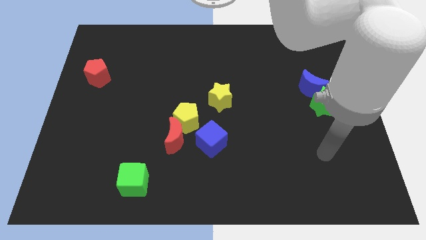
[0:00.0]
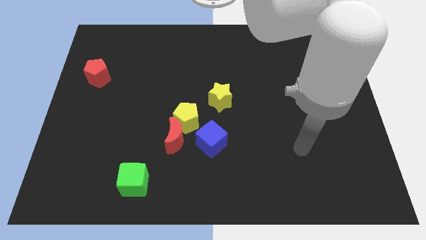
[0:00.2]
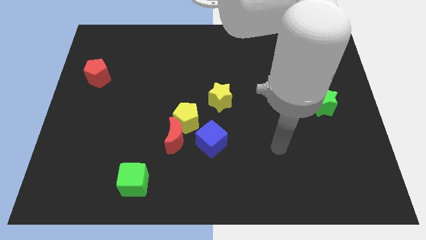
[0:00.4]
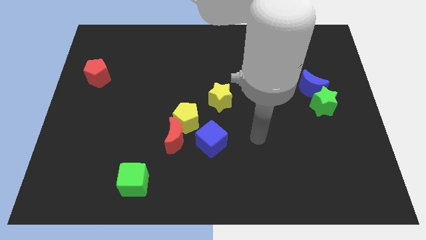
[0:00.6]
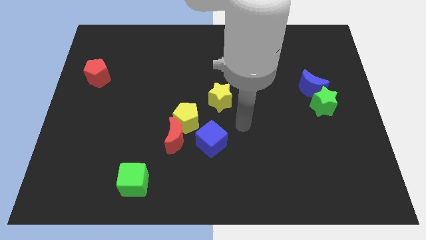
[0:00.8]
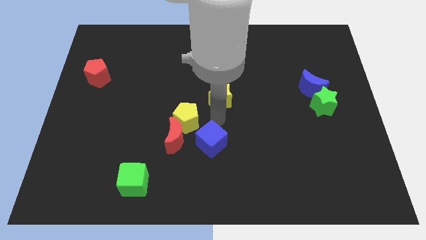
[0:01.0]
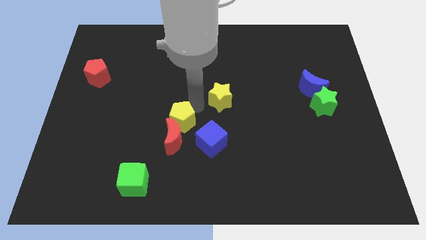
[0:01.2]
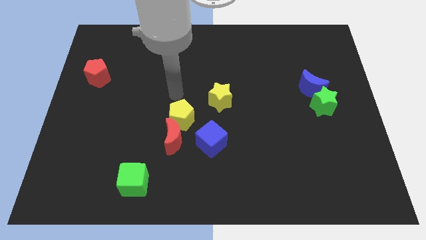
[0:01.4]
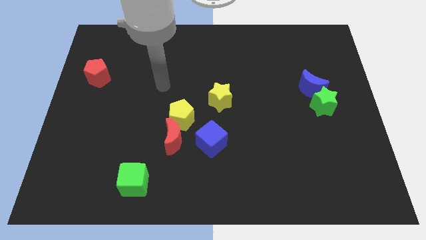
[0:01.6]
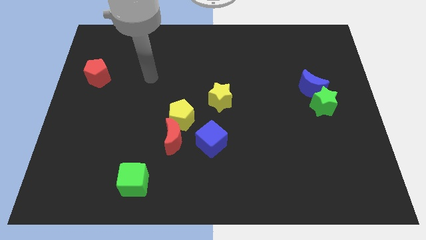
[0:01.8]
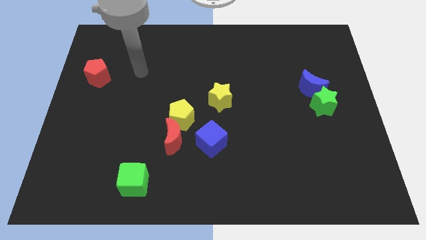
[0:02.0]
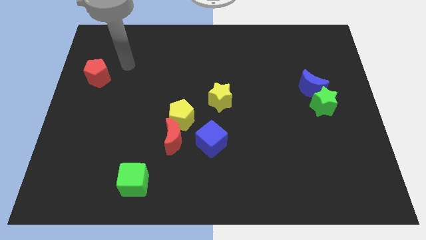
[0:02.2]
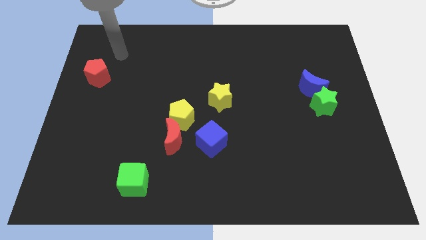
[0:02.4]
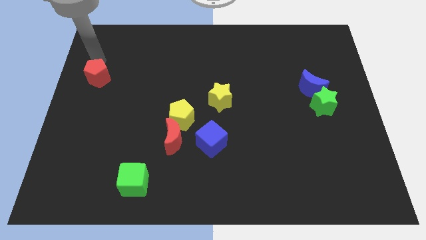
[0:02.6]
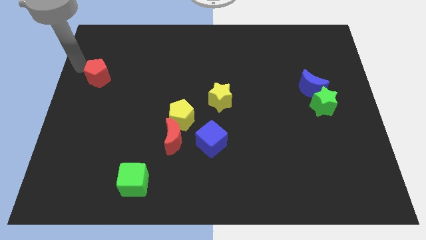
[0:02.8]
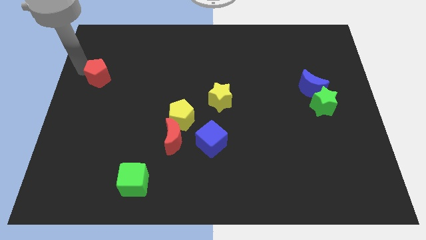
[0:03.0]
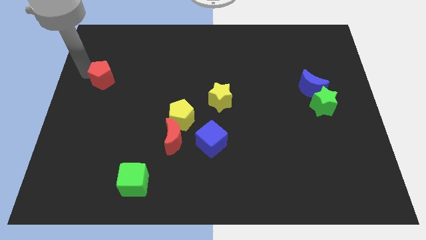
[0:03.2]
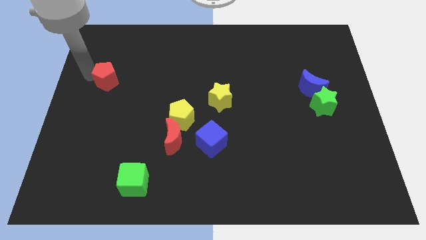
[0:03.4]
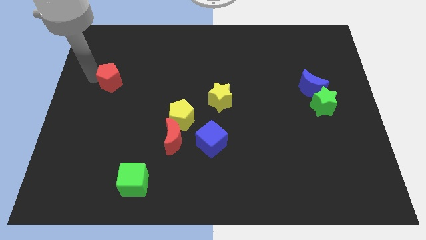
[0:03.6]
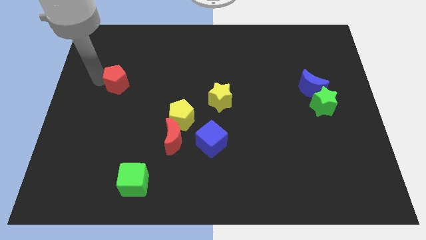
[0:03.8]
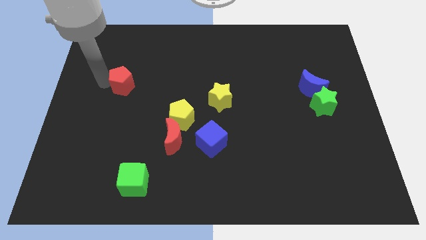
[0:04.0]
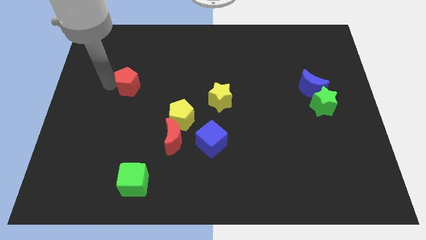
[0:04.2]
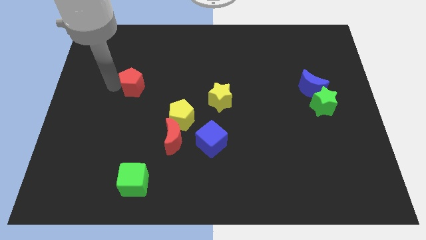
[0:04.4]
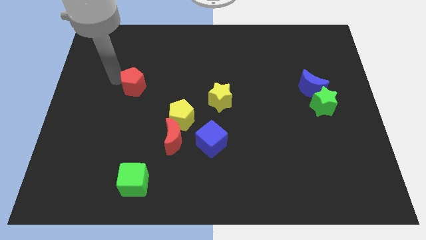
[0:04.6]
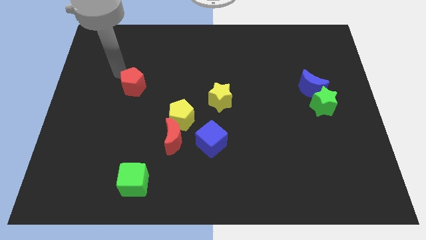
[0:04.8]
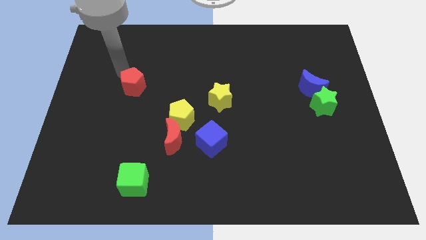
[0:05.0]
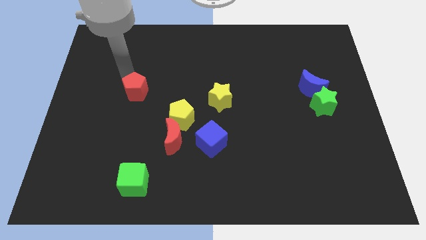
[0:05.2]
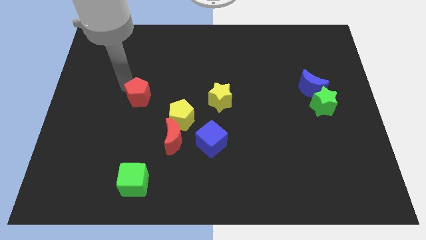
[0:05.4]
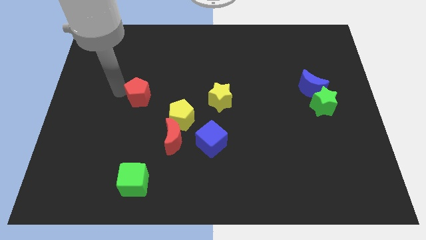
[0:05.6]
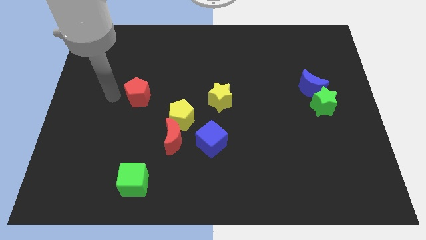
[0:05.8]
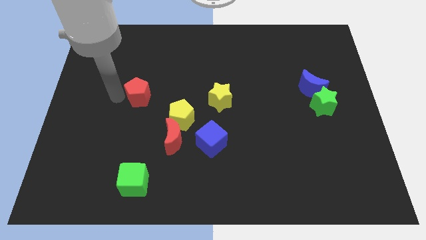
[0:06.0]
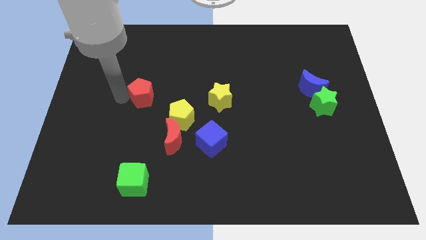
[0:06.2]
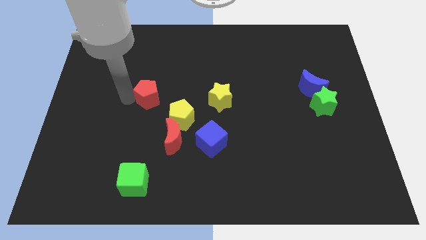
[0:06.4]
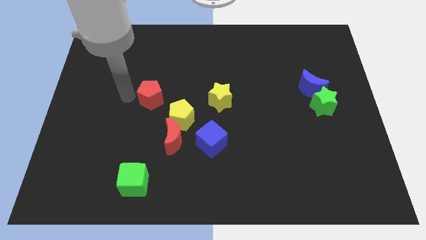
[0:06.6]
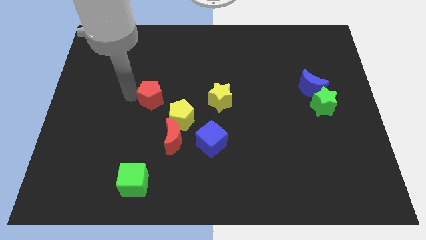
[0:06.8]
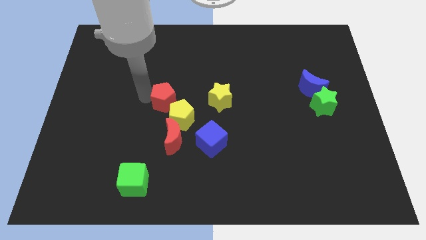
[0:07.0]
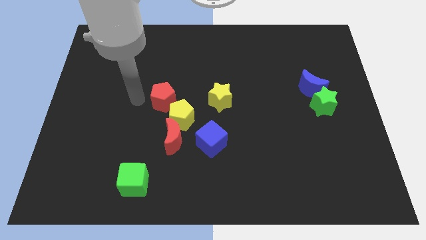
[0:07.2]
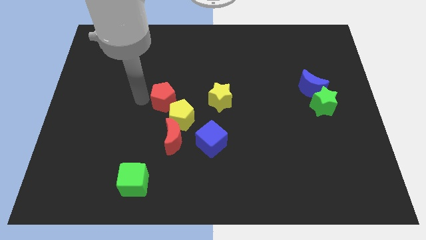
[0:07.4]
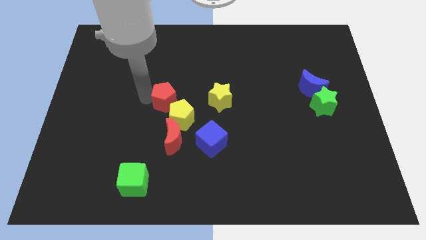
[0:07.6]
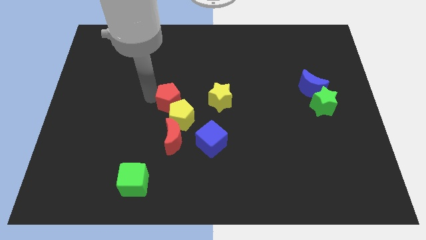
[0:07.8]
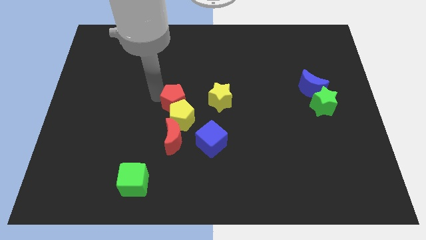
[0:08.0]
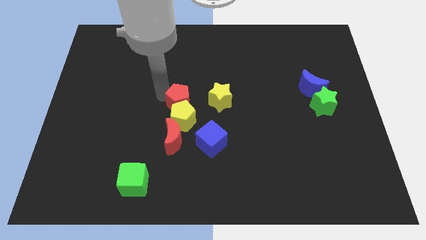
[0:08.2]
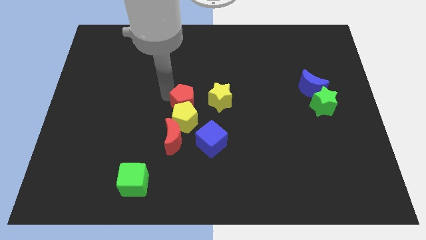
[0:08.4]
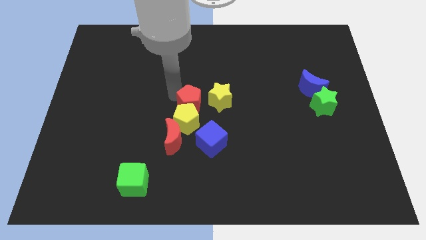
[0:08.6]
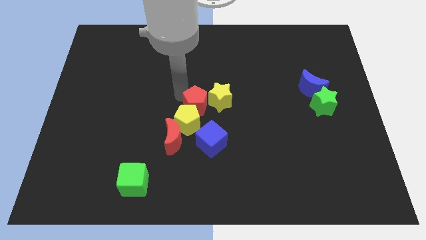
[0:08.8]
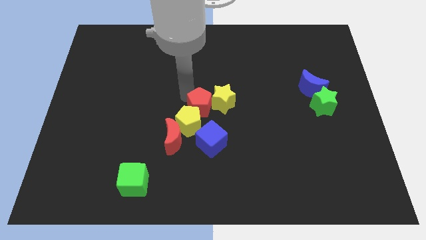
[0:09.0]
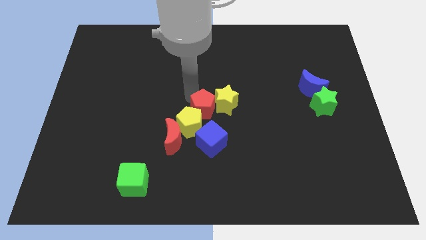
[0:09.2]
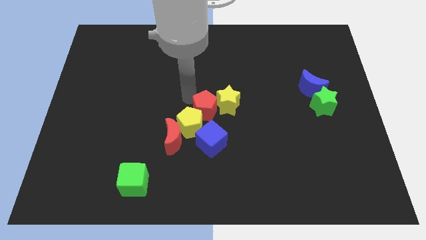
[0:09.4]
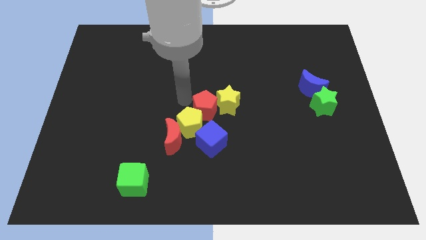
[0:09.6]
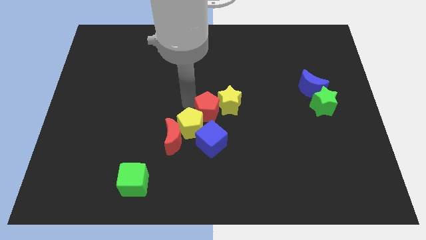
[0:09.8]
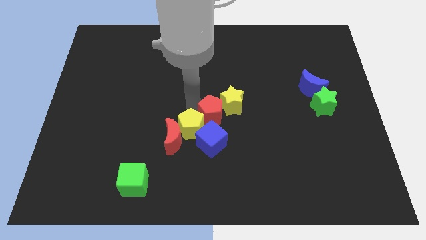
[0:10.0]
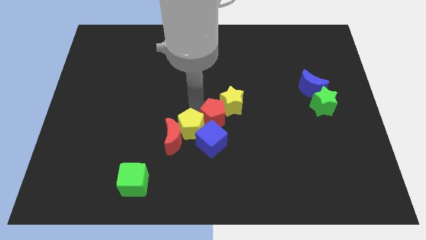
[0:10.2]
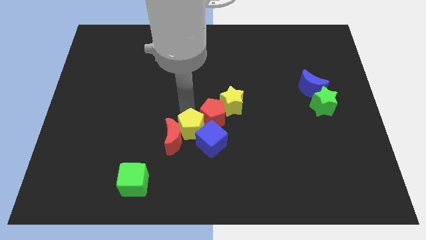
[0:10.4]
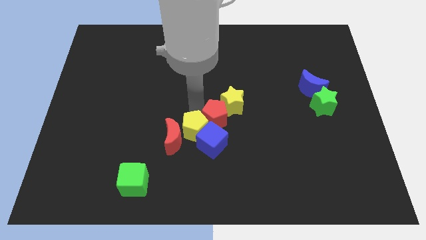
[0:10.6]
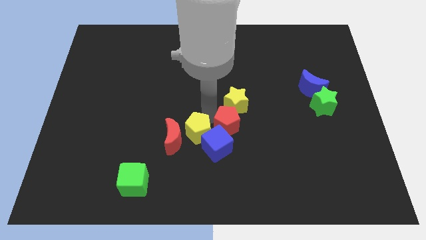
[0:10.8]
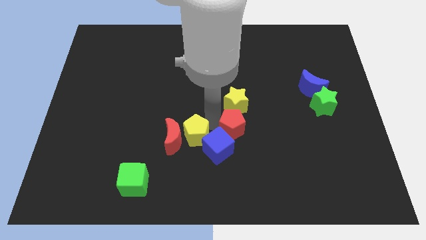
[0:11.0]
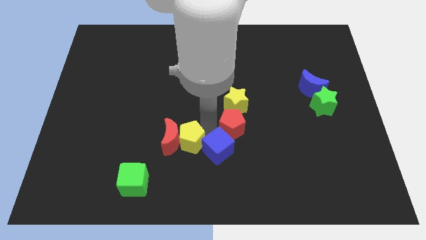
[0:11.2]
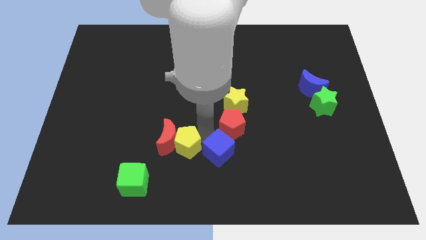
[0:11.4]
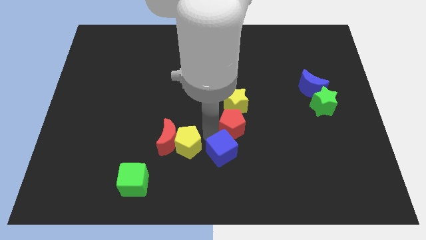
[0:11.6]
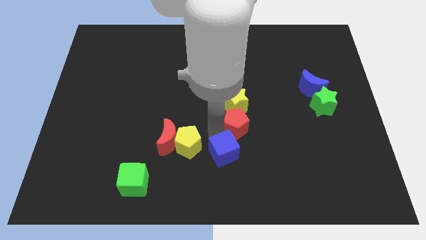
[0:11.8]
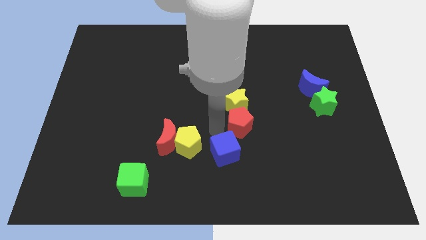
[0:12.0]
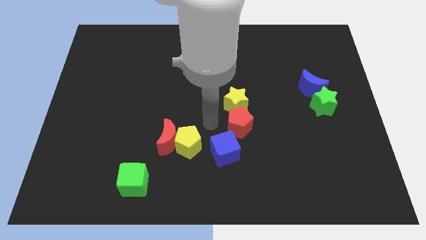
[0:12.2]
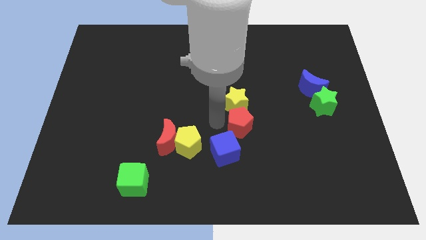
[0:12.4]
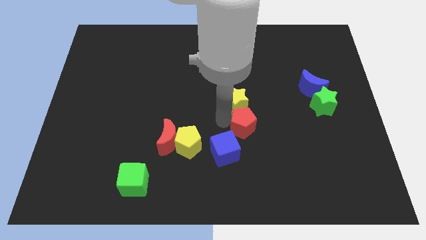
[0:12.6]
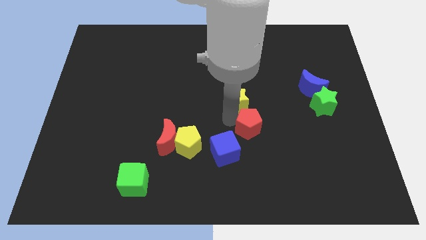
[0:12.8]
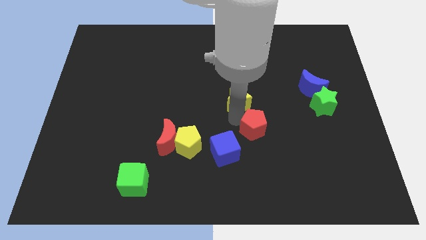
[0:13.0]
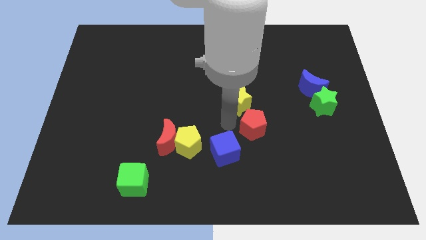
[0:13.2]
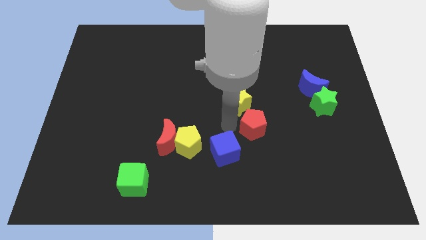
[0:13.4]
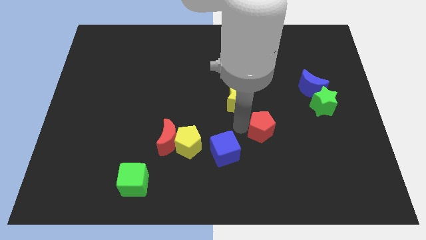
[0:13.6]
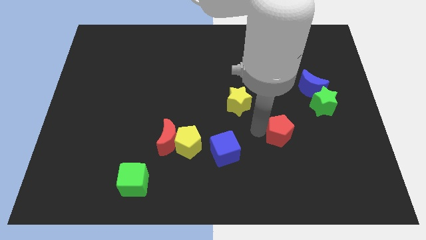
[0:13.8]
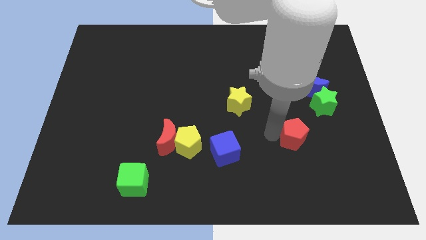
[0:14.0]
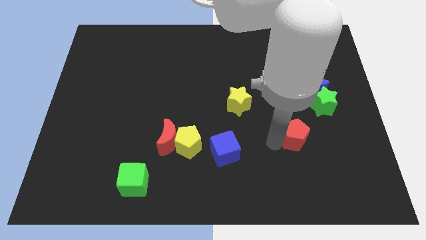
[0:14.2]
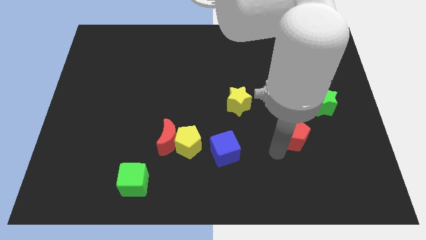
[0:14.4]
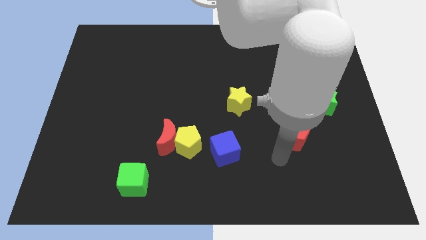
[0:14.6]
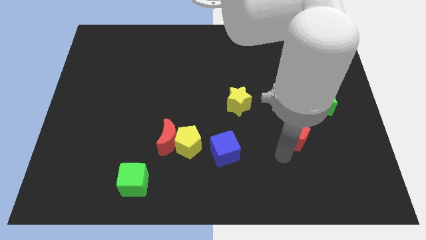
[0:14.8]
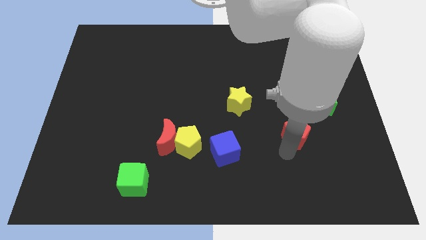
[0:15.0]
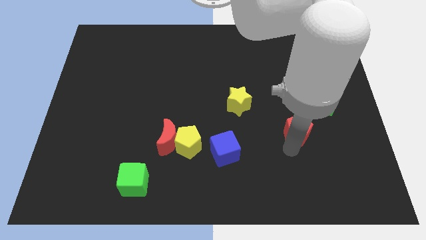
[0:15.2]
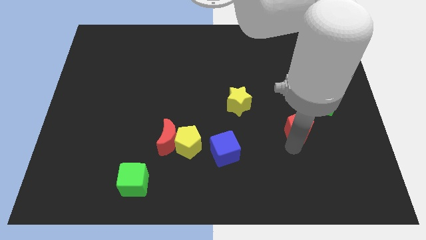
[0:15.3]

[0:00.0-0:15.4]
slide the red pentagon to the bottom of the blue moon
